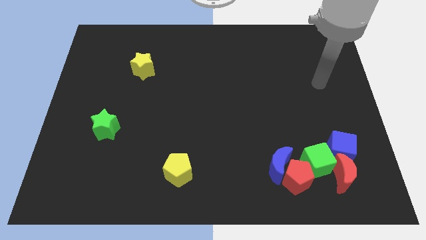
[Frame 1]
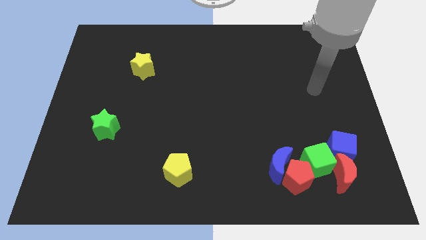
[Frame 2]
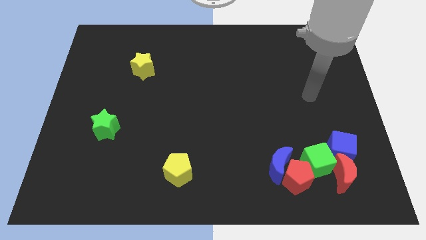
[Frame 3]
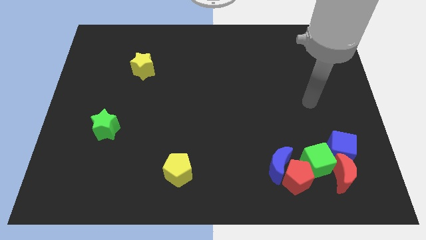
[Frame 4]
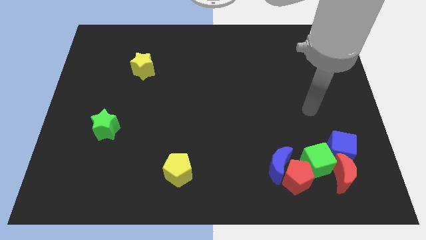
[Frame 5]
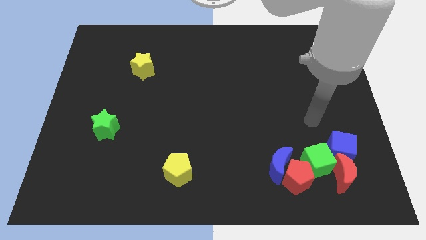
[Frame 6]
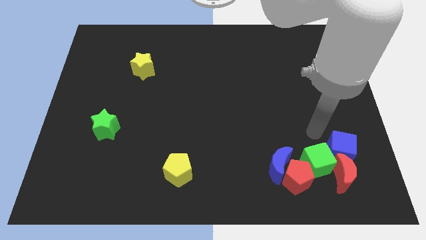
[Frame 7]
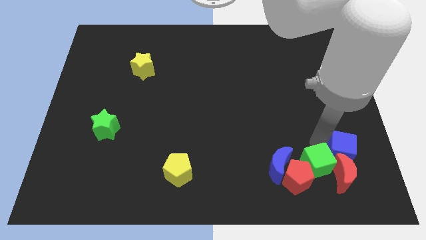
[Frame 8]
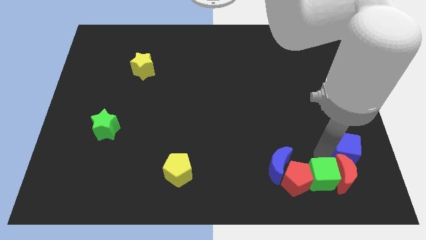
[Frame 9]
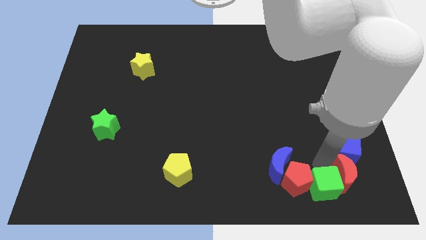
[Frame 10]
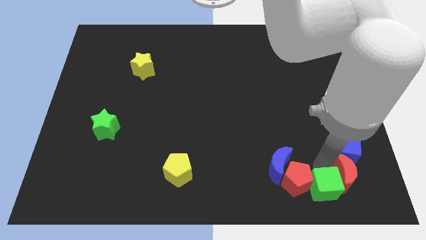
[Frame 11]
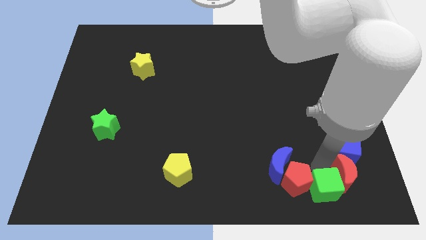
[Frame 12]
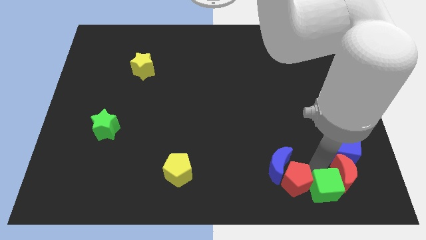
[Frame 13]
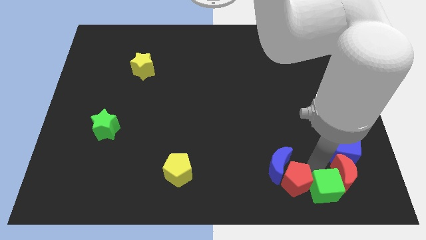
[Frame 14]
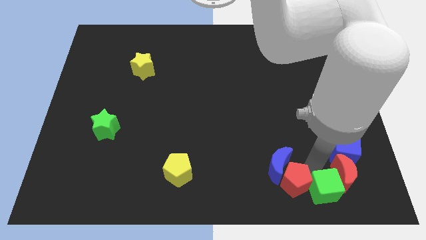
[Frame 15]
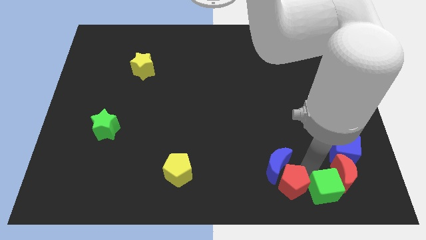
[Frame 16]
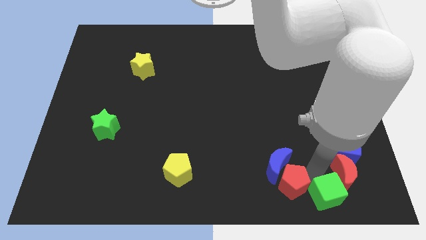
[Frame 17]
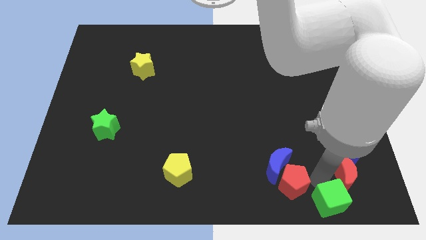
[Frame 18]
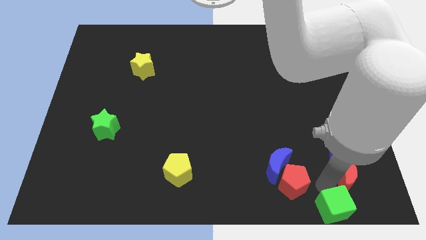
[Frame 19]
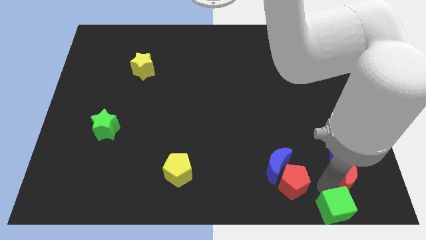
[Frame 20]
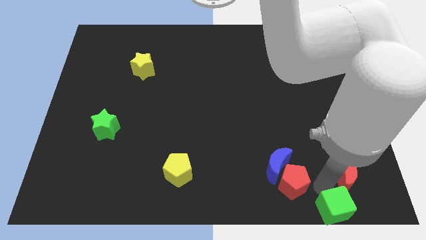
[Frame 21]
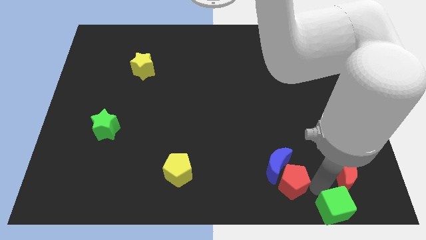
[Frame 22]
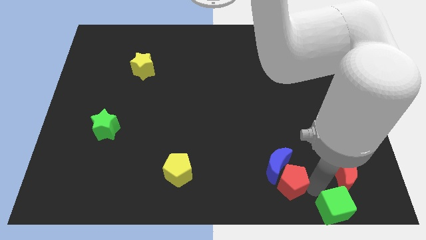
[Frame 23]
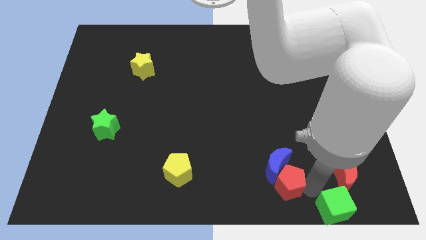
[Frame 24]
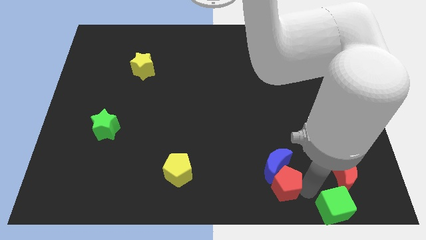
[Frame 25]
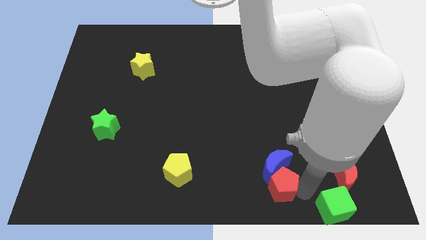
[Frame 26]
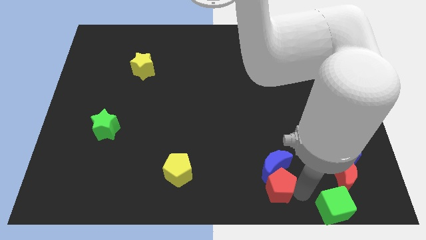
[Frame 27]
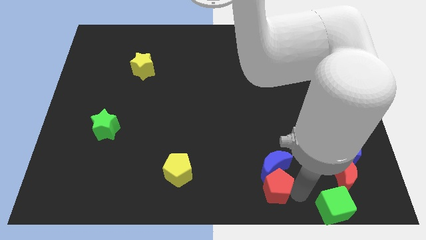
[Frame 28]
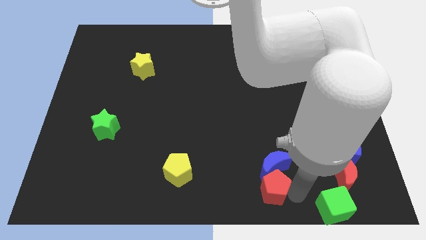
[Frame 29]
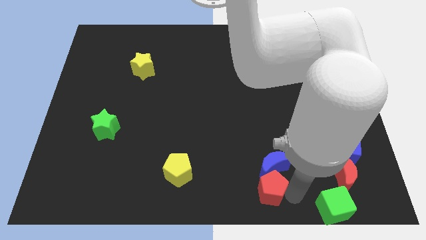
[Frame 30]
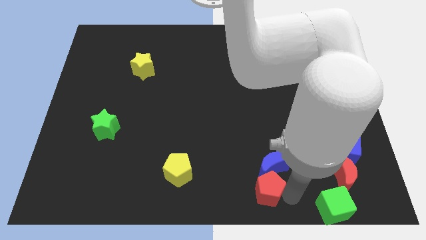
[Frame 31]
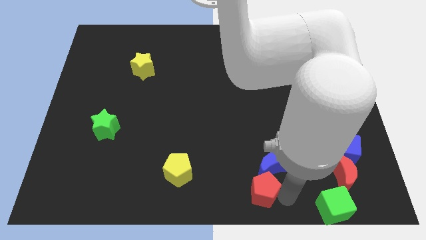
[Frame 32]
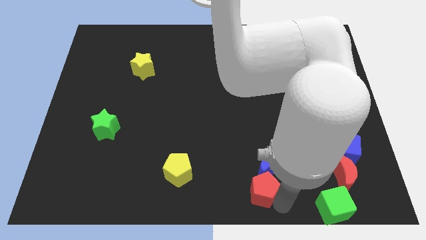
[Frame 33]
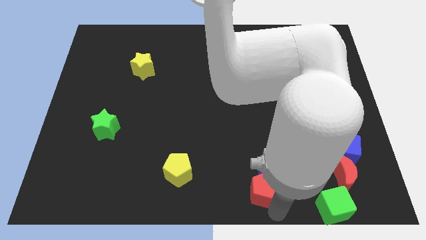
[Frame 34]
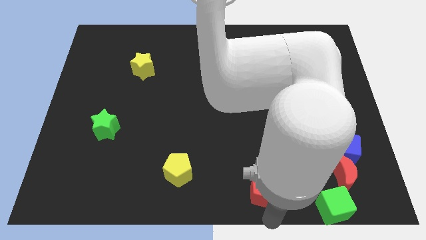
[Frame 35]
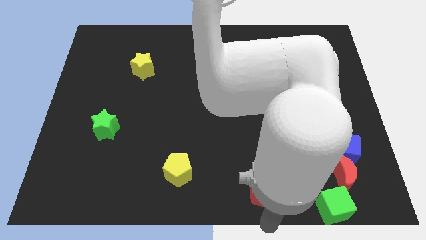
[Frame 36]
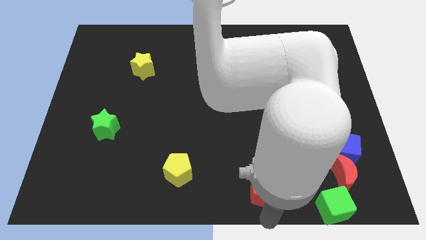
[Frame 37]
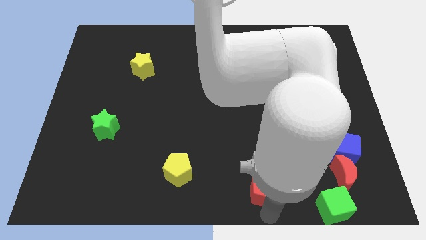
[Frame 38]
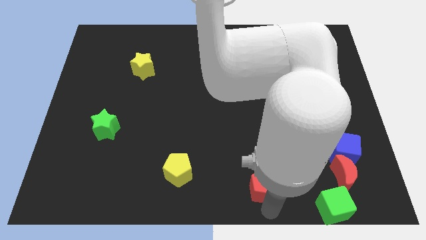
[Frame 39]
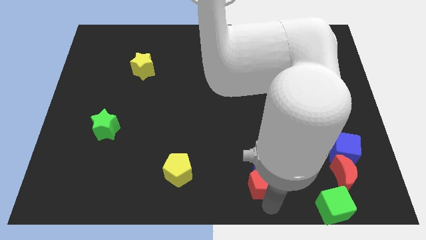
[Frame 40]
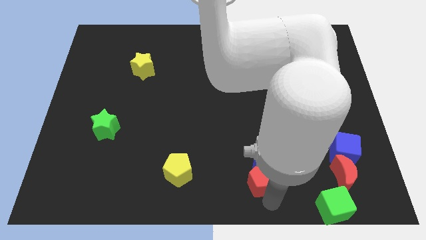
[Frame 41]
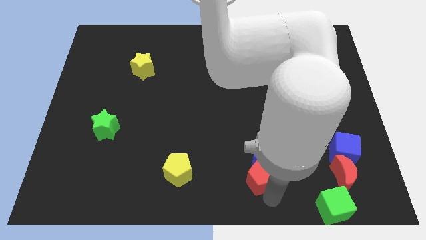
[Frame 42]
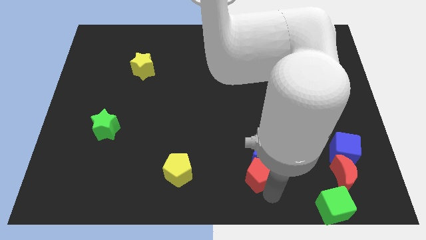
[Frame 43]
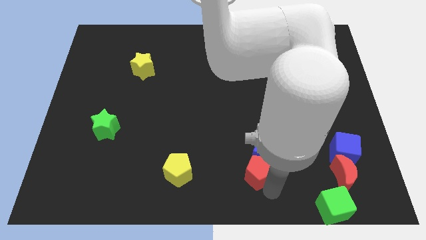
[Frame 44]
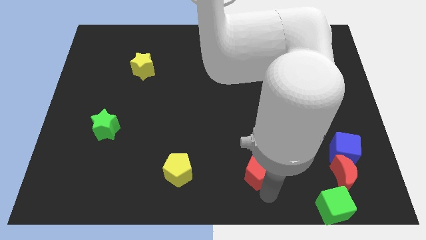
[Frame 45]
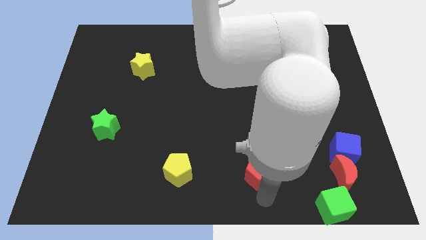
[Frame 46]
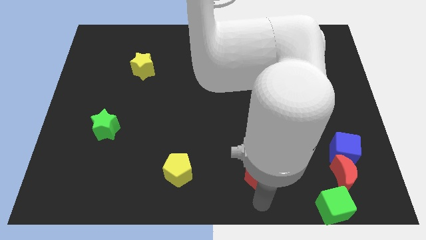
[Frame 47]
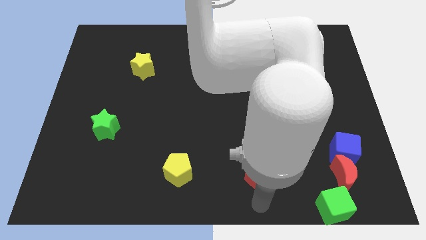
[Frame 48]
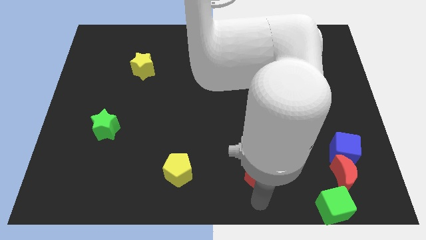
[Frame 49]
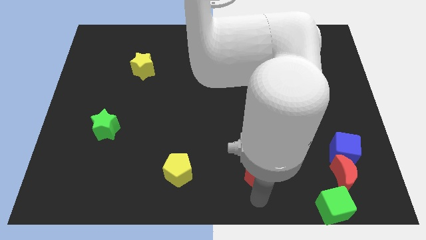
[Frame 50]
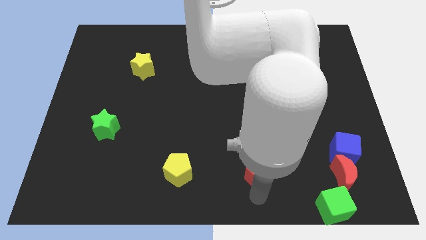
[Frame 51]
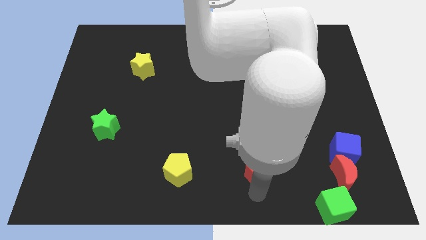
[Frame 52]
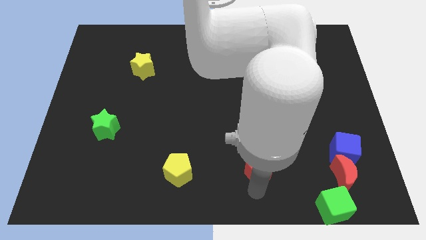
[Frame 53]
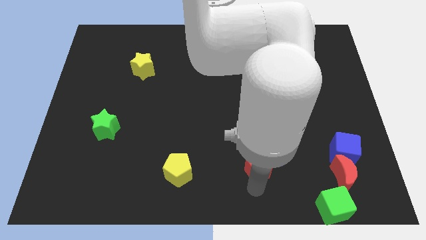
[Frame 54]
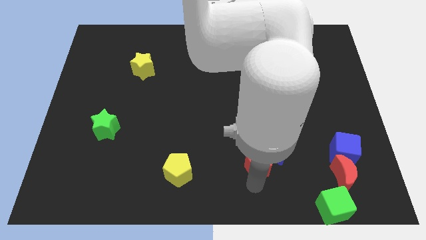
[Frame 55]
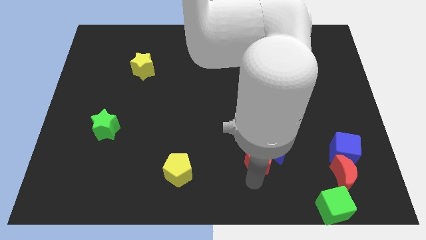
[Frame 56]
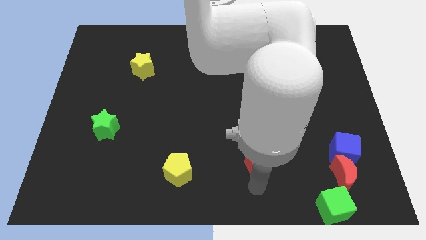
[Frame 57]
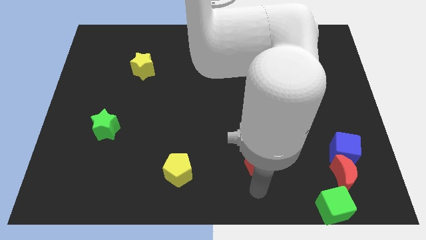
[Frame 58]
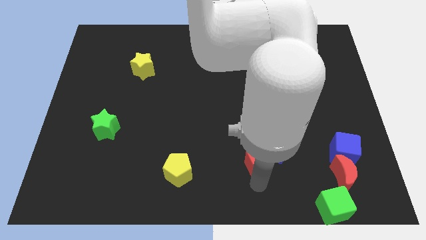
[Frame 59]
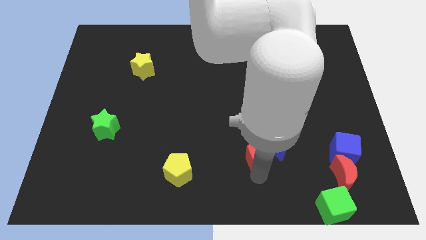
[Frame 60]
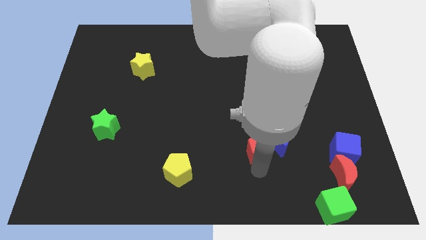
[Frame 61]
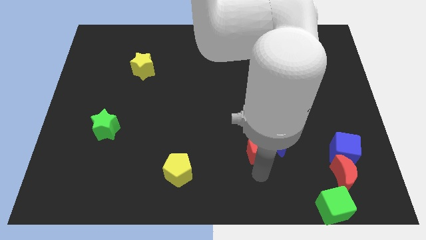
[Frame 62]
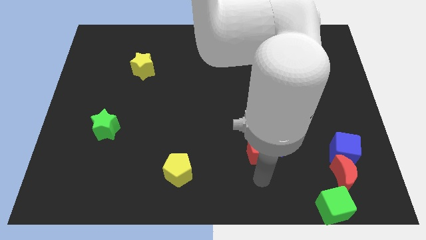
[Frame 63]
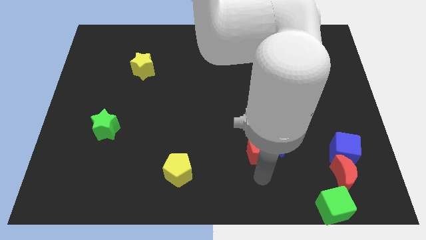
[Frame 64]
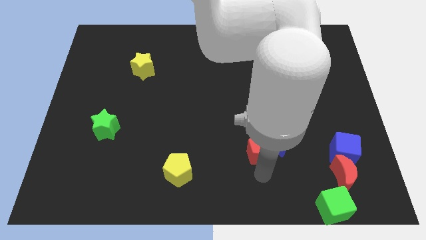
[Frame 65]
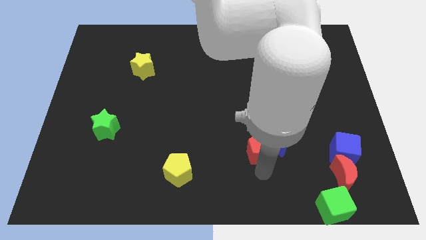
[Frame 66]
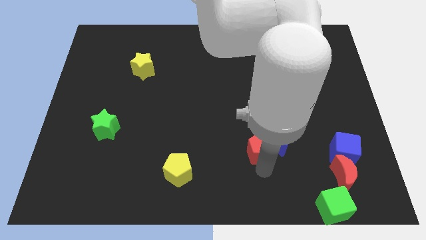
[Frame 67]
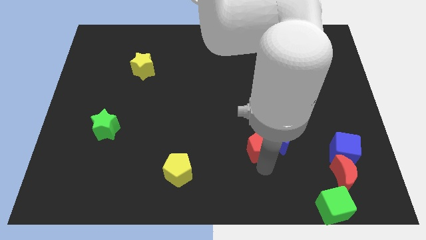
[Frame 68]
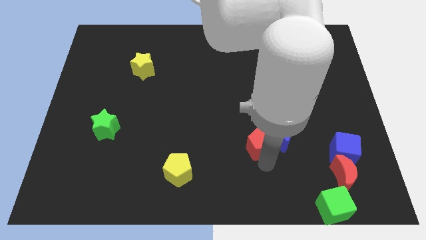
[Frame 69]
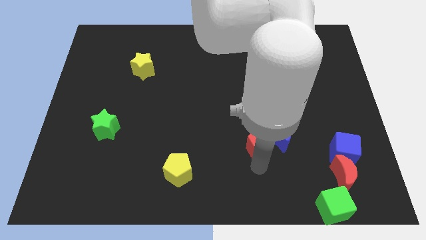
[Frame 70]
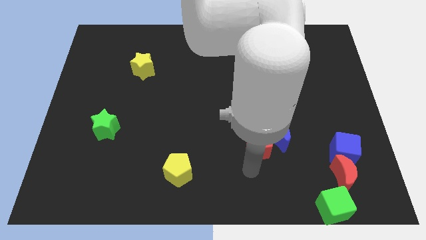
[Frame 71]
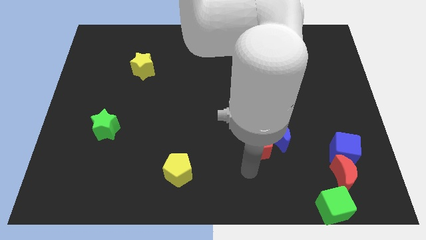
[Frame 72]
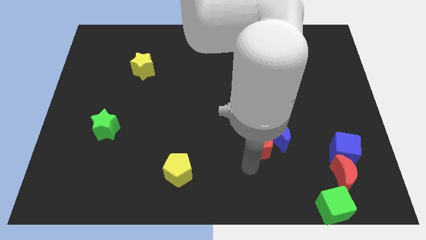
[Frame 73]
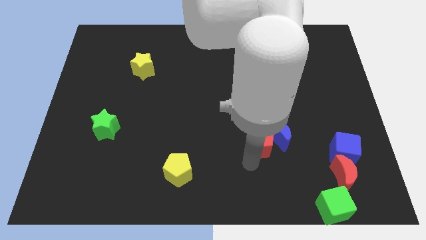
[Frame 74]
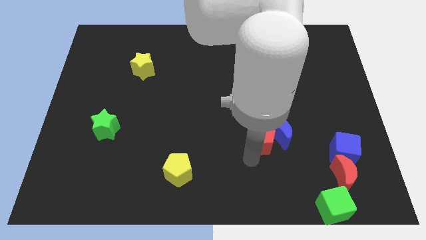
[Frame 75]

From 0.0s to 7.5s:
slide the red pentagon up a little bit

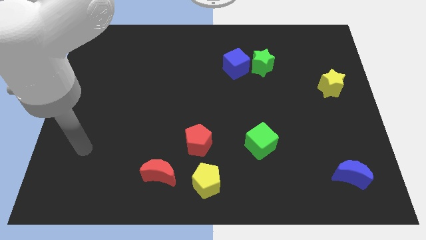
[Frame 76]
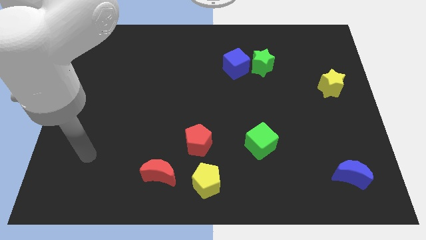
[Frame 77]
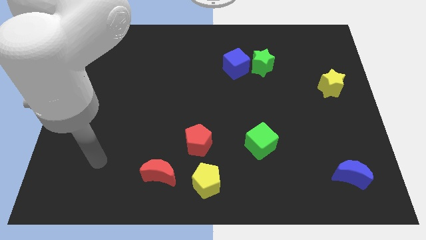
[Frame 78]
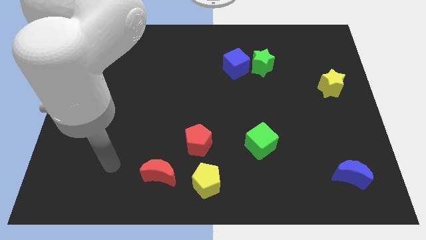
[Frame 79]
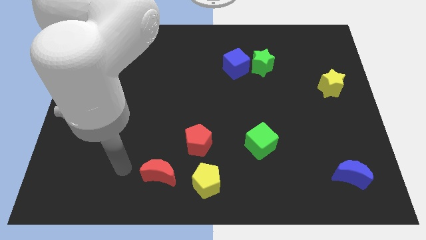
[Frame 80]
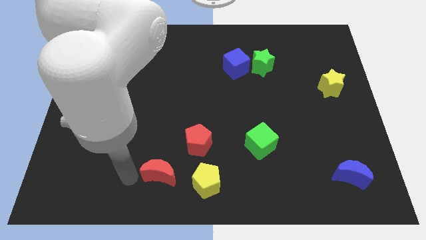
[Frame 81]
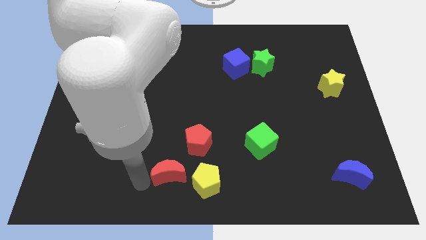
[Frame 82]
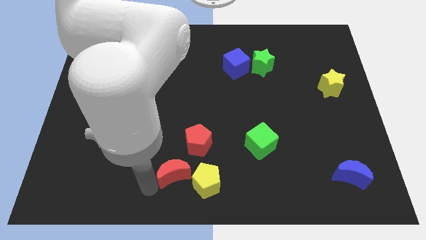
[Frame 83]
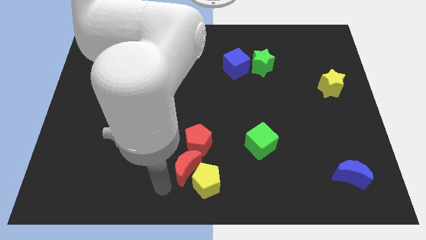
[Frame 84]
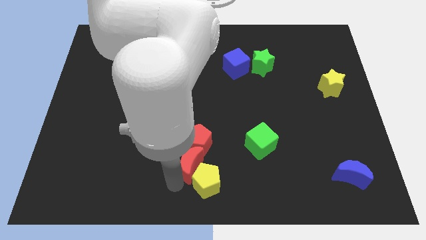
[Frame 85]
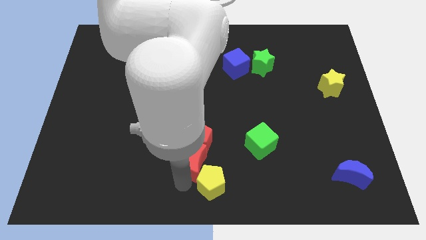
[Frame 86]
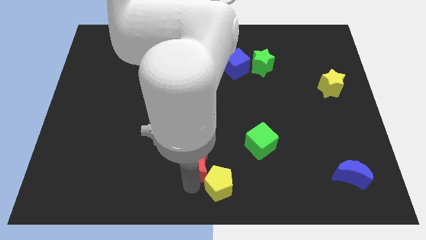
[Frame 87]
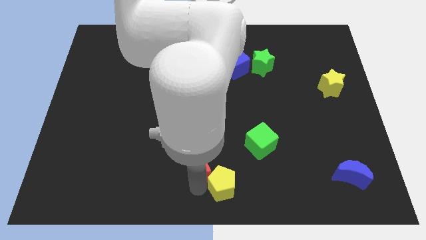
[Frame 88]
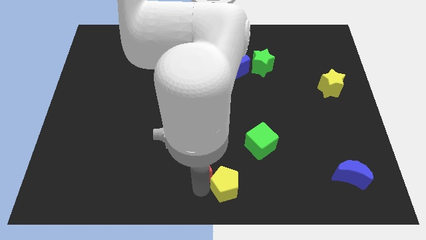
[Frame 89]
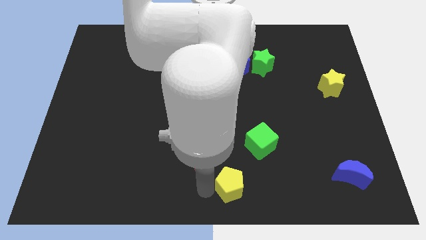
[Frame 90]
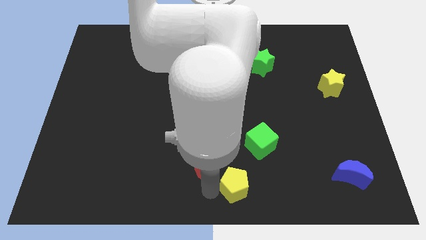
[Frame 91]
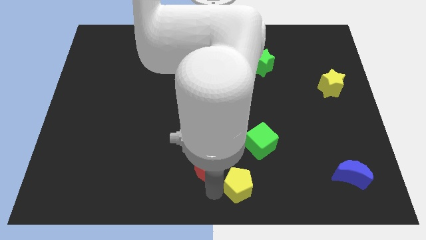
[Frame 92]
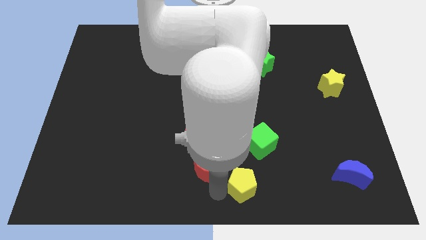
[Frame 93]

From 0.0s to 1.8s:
push the yellow pentagon a little to the right
